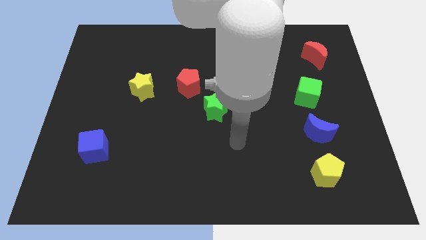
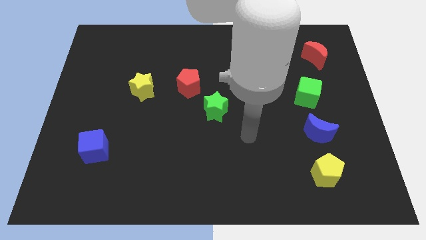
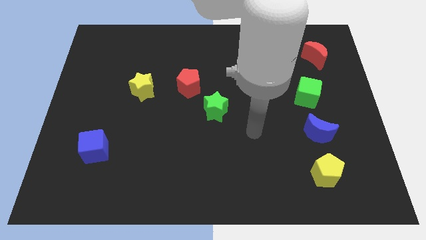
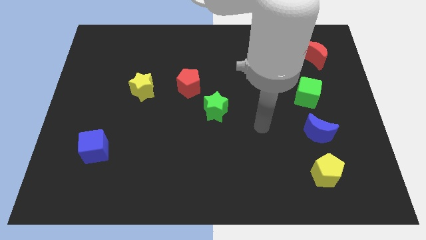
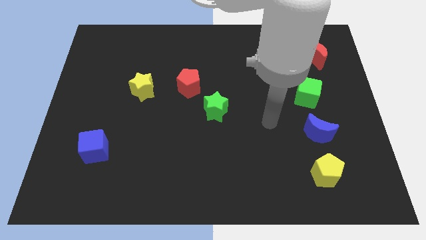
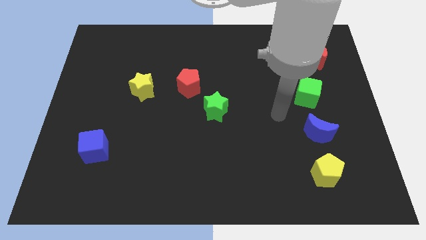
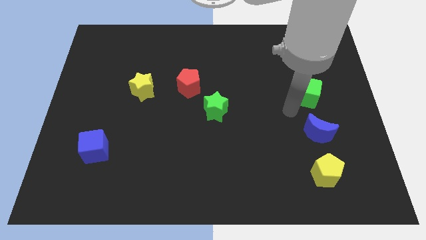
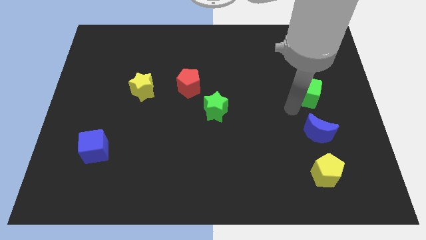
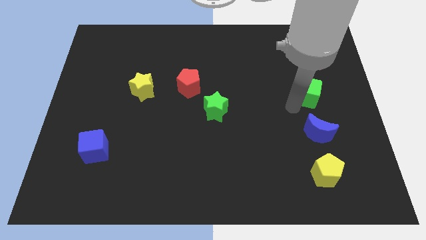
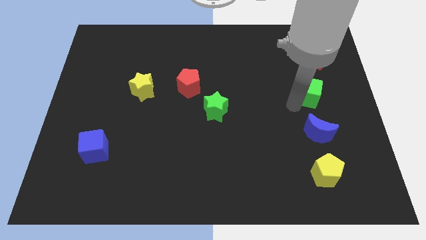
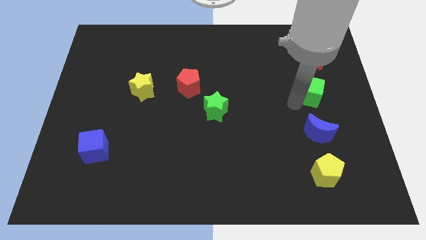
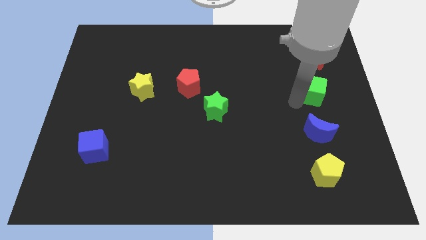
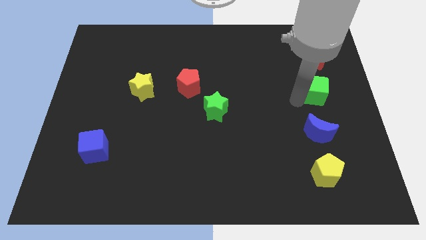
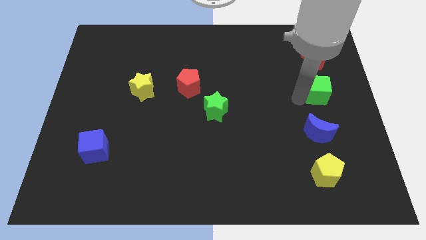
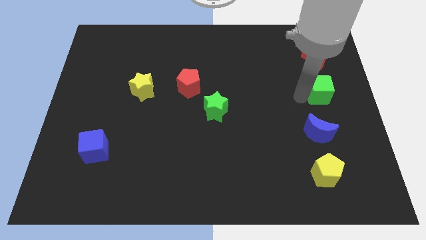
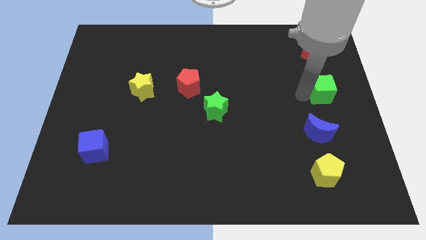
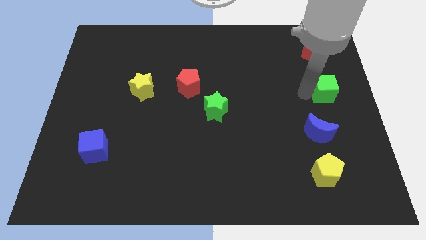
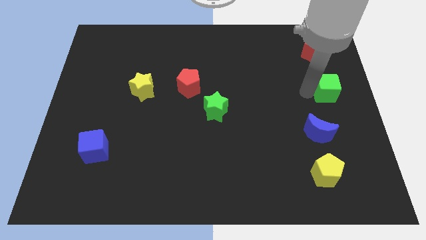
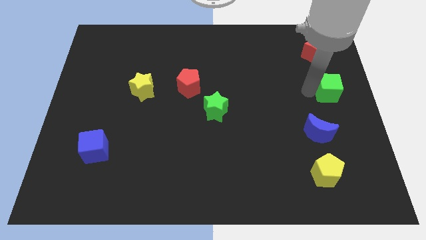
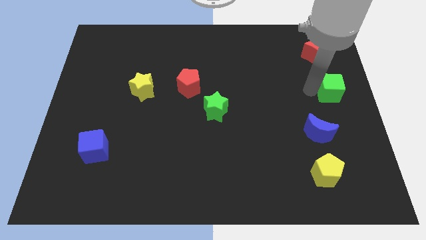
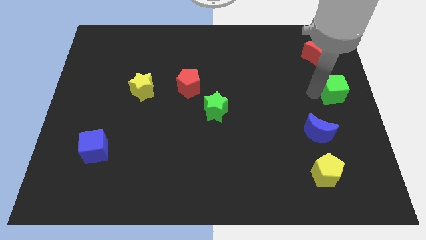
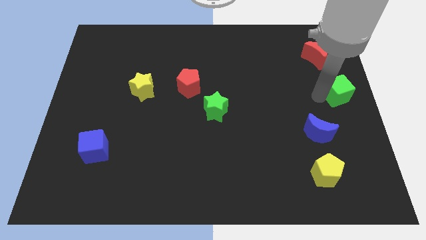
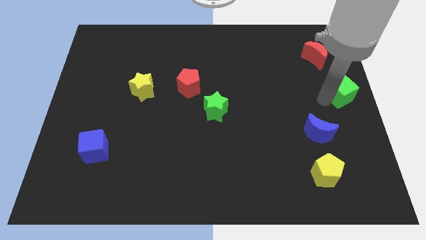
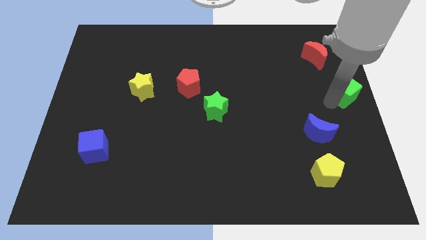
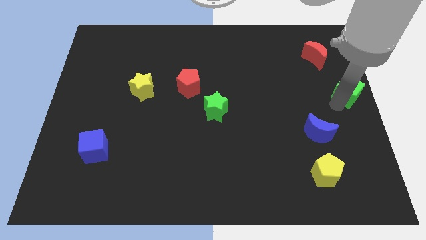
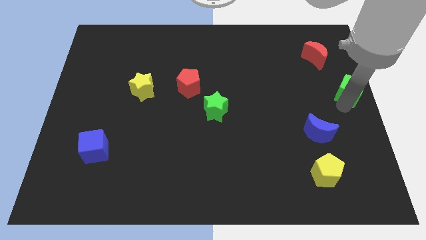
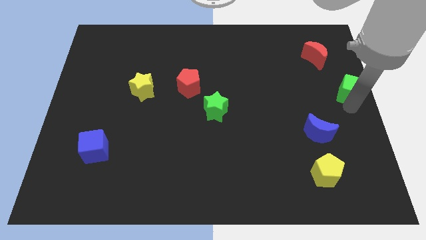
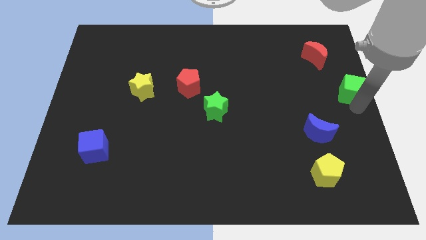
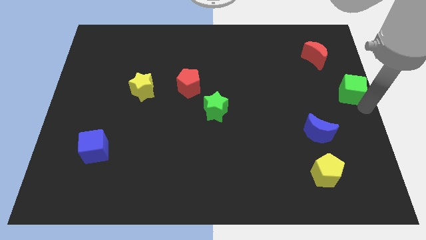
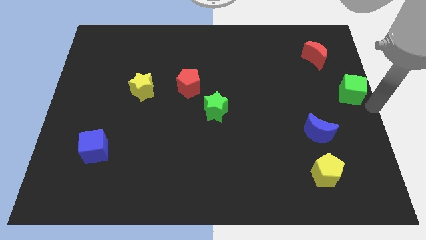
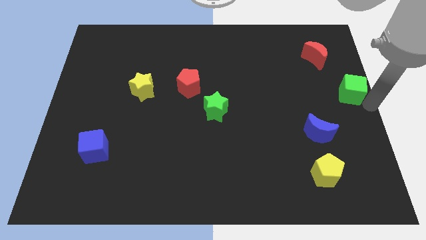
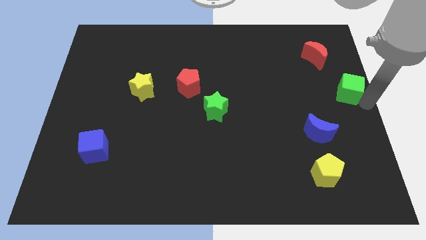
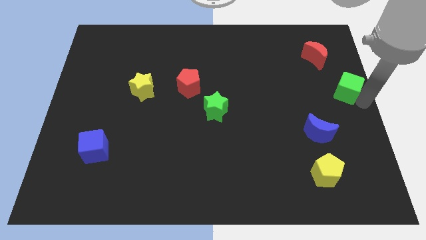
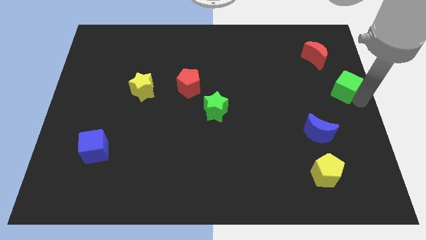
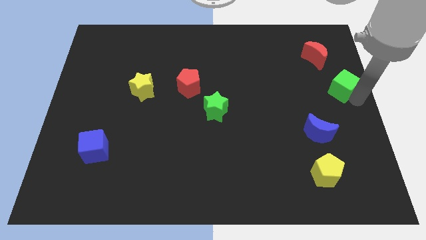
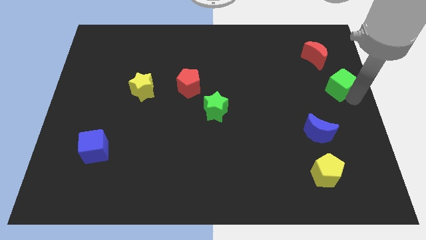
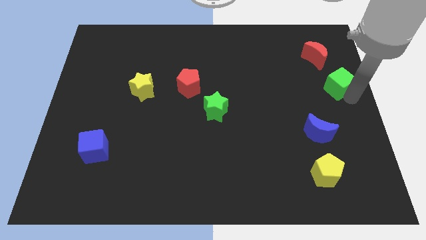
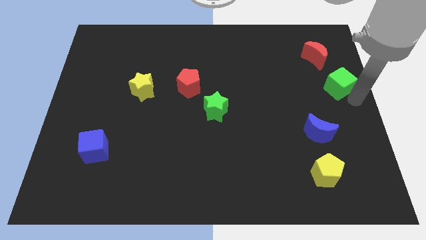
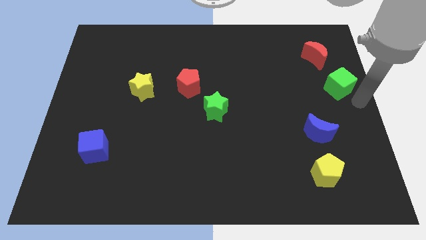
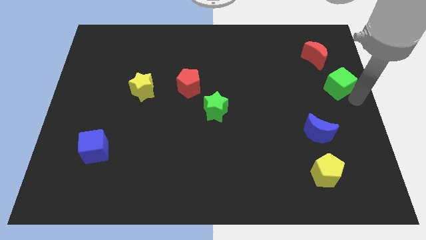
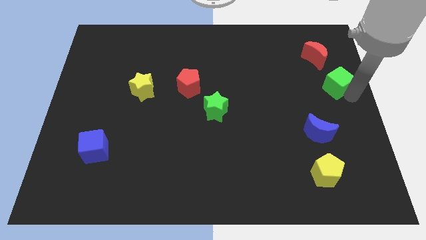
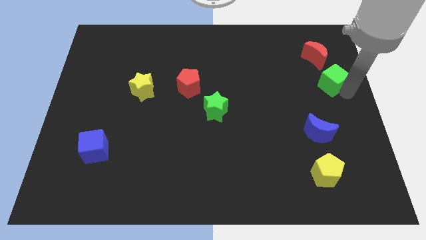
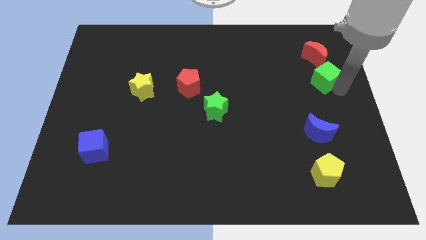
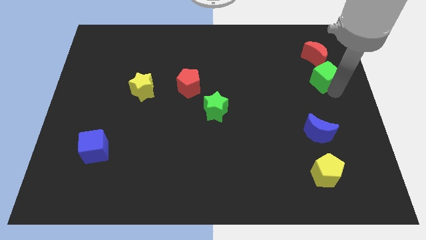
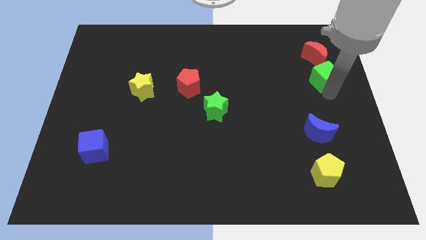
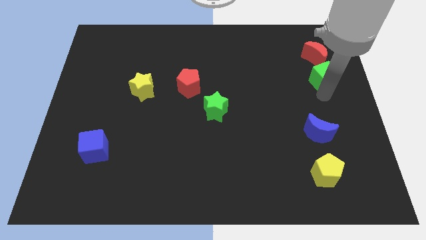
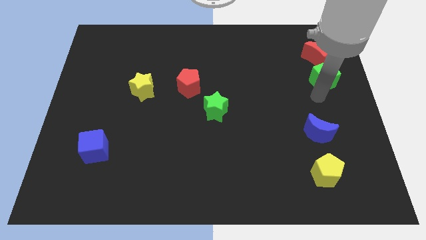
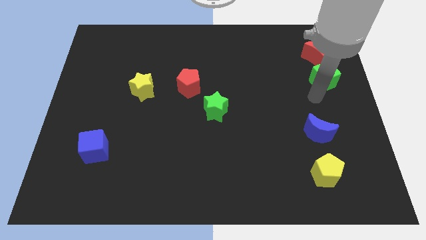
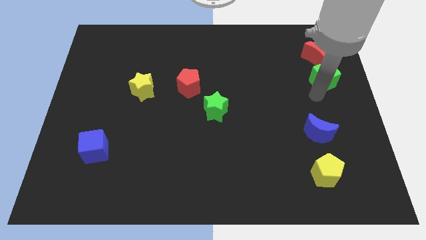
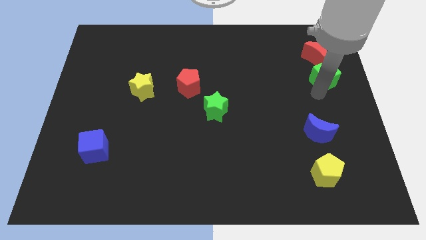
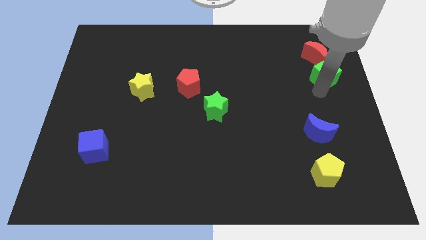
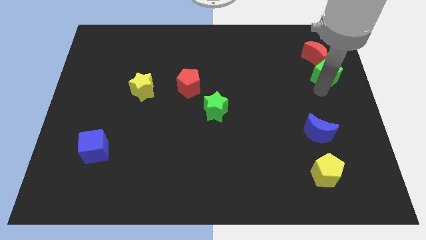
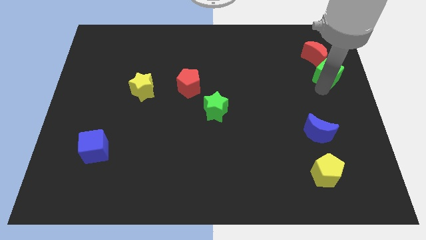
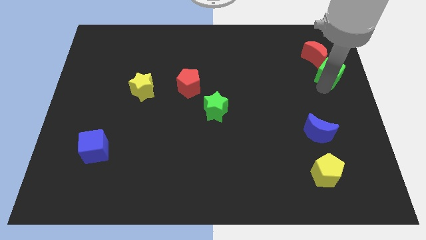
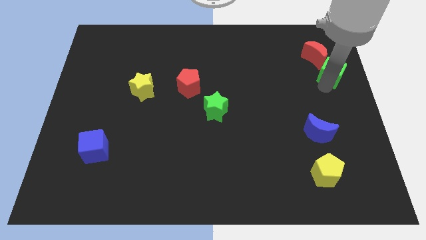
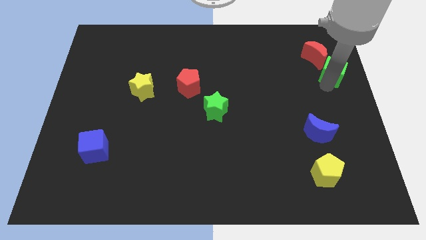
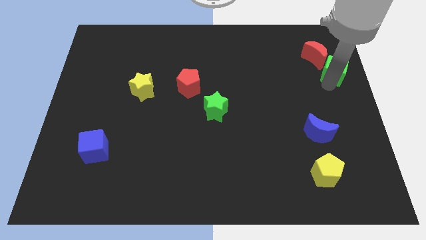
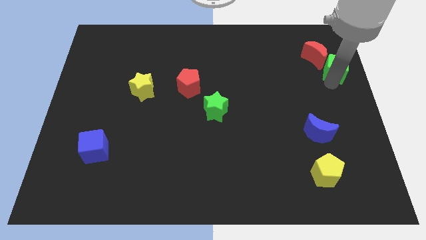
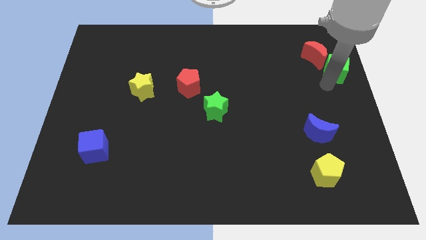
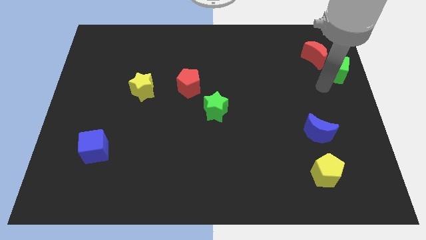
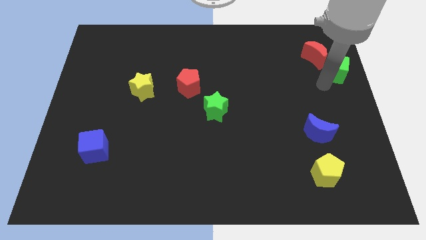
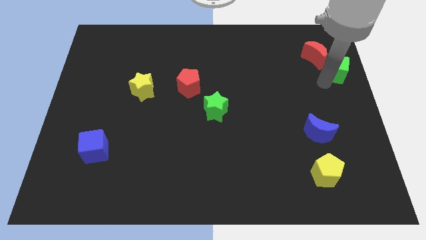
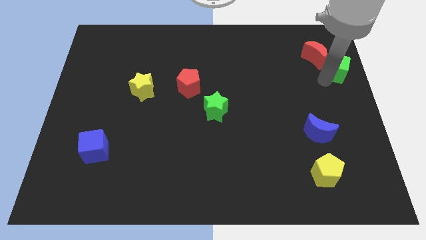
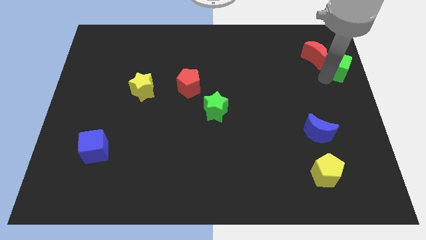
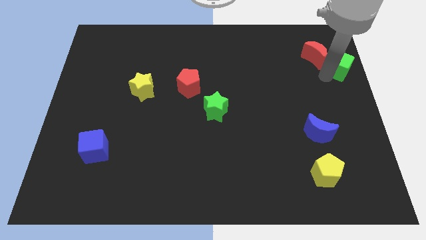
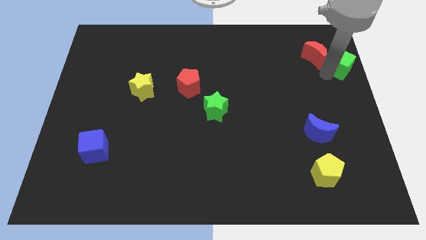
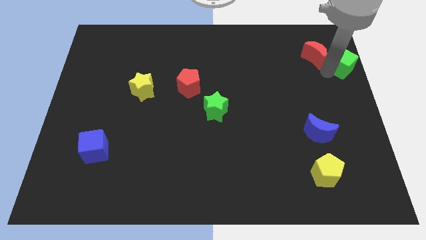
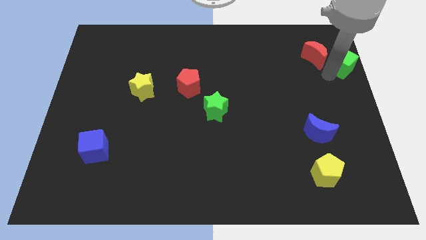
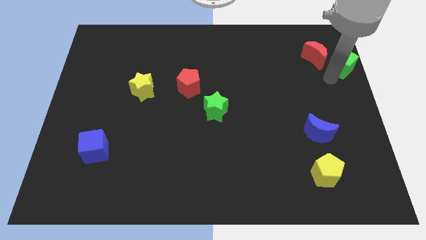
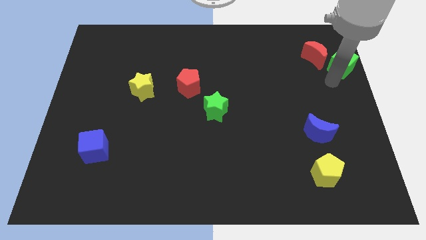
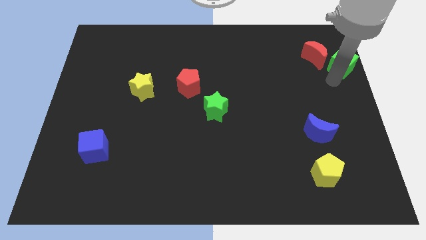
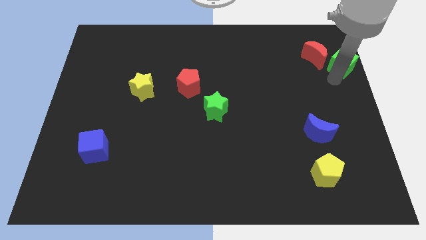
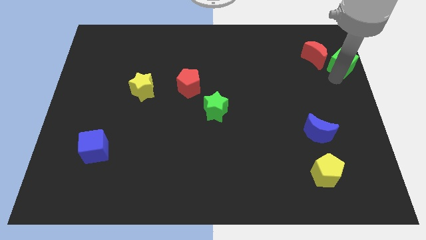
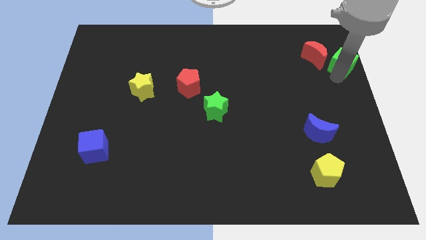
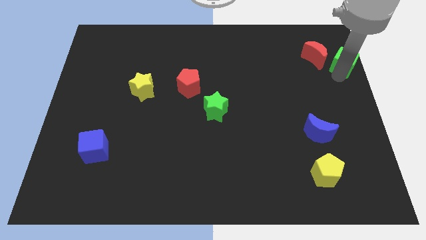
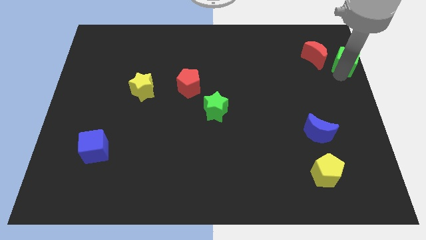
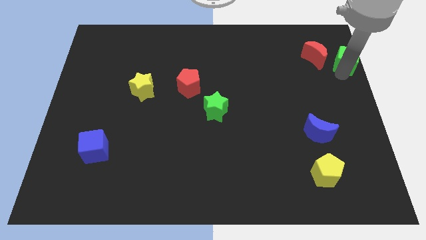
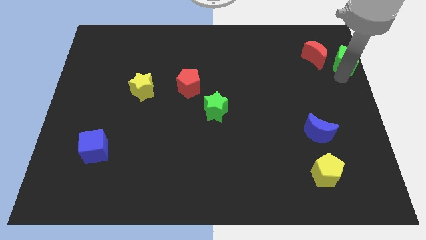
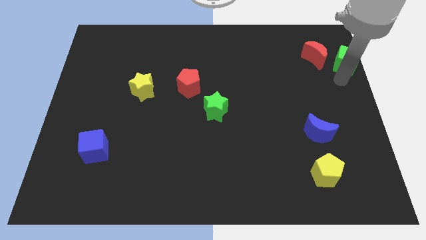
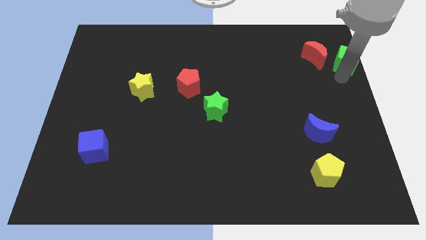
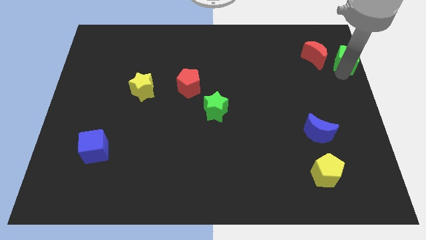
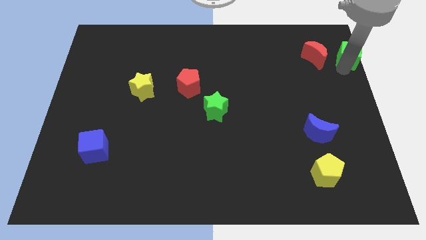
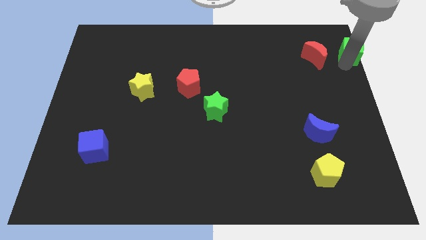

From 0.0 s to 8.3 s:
put the green cube to the top right
